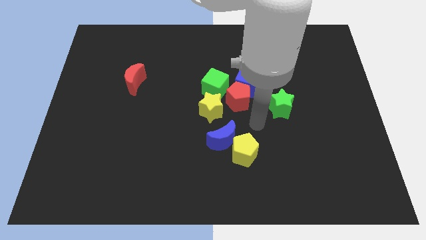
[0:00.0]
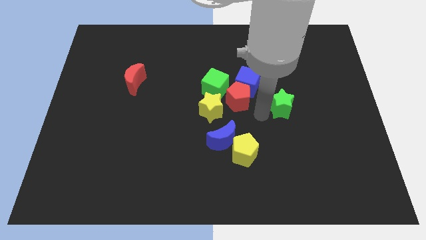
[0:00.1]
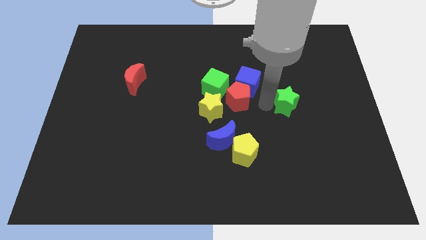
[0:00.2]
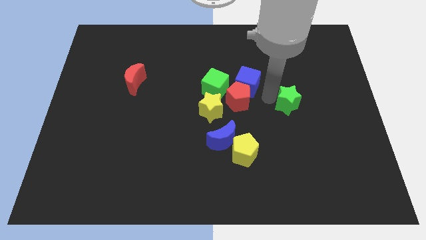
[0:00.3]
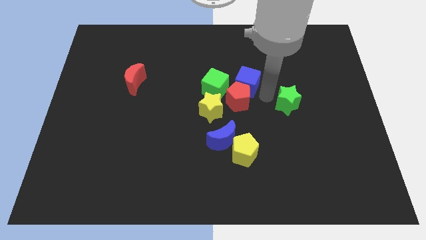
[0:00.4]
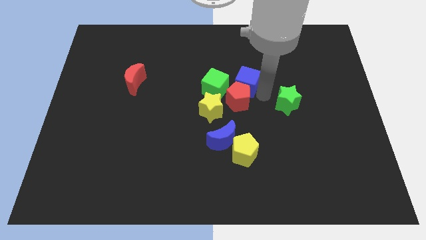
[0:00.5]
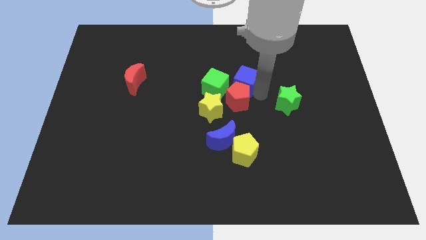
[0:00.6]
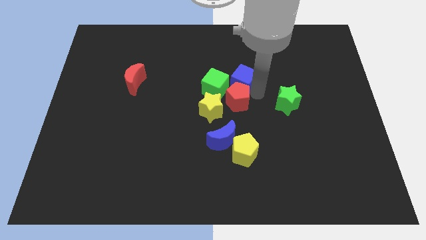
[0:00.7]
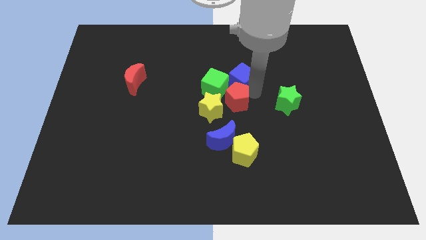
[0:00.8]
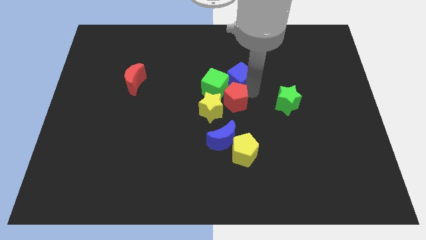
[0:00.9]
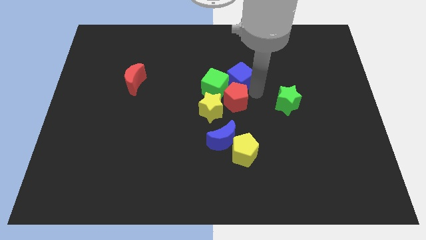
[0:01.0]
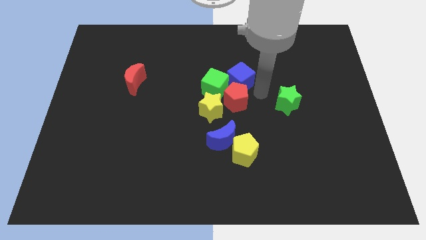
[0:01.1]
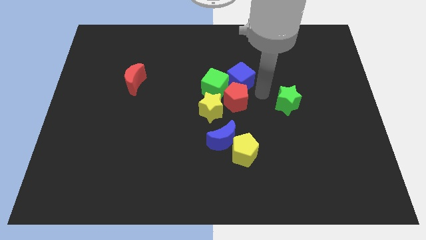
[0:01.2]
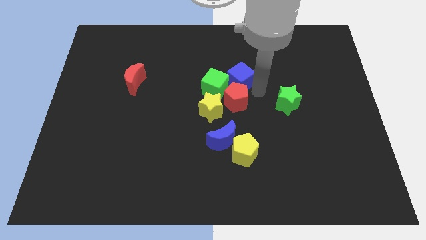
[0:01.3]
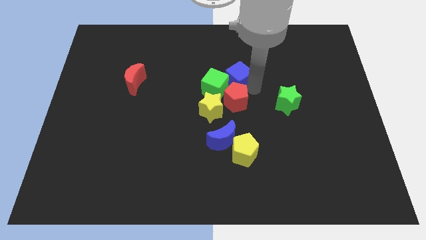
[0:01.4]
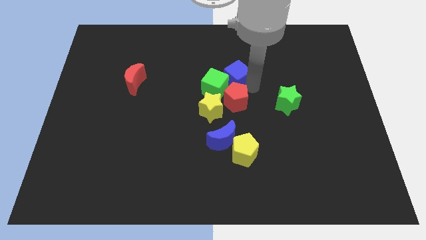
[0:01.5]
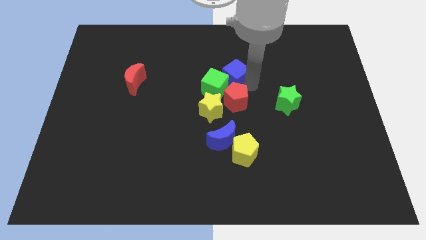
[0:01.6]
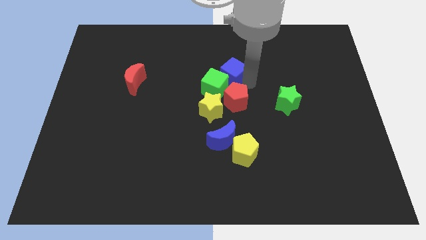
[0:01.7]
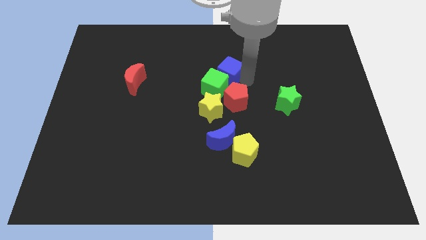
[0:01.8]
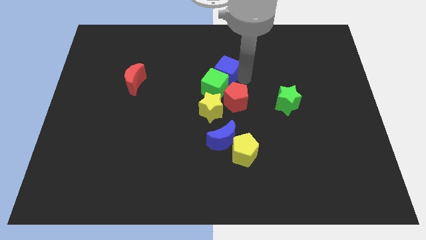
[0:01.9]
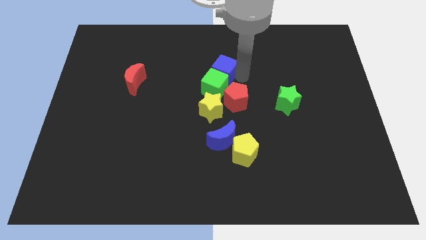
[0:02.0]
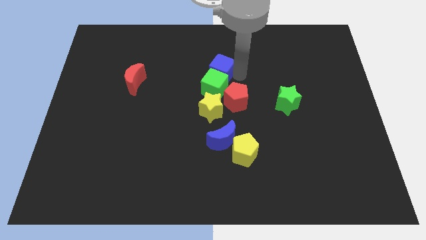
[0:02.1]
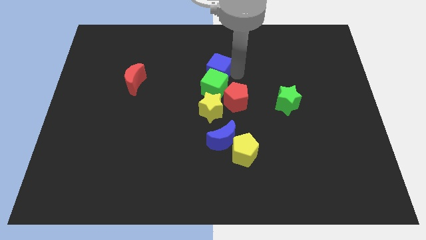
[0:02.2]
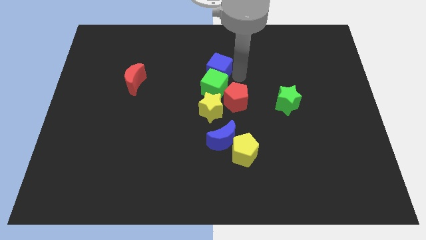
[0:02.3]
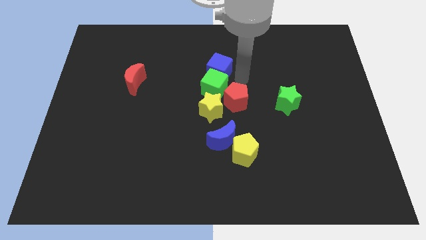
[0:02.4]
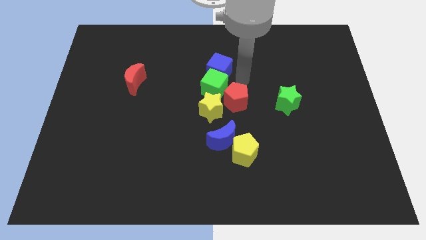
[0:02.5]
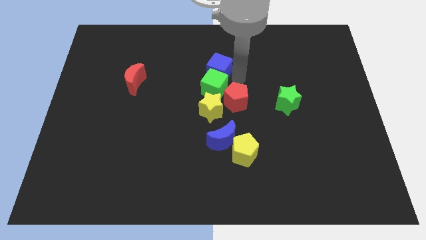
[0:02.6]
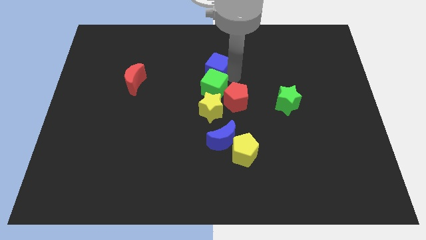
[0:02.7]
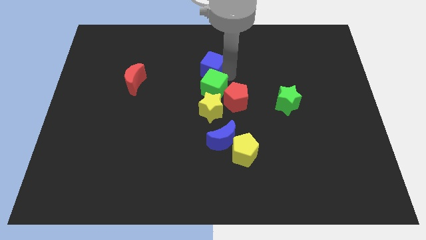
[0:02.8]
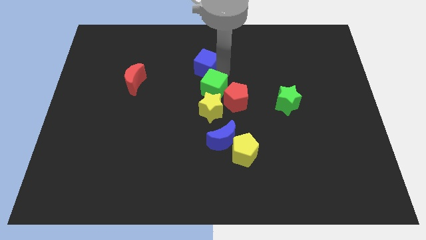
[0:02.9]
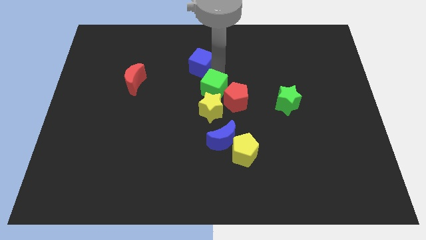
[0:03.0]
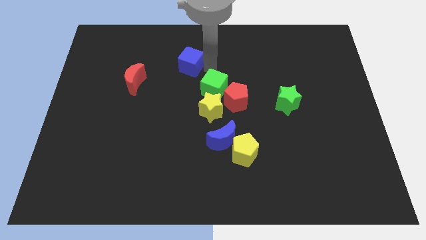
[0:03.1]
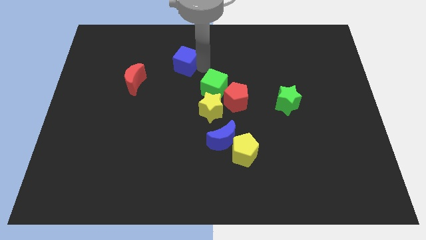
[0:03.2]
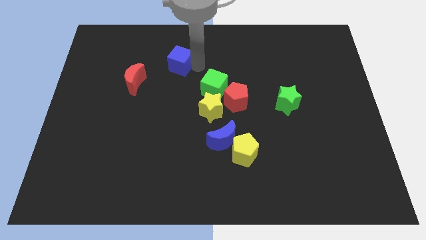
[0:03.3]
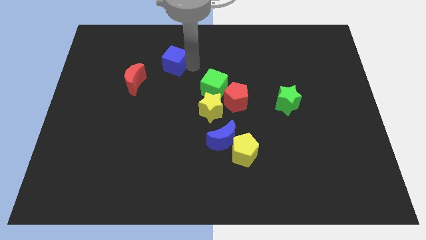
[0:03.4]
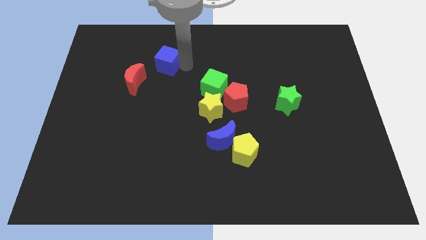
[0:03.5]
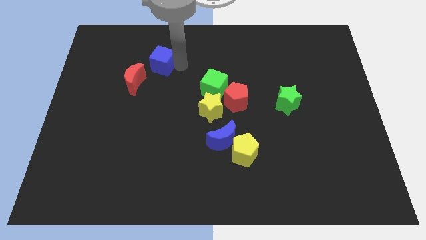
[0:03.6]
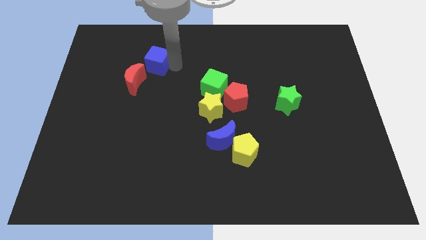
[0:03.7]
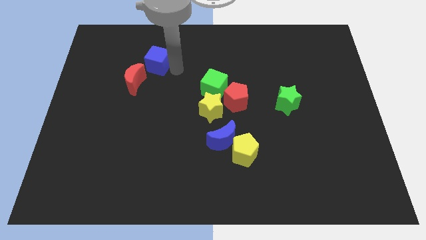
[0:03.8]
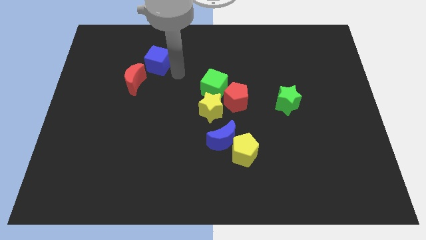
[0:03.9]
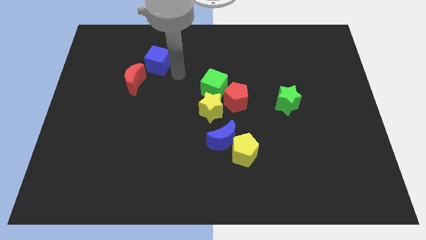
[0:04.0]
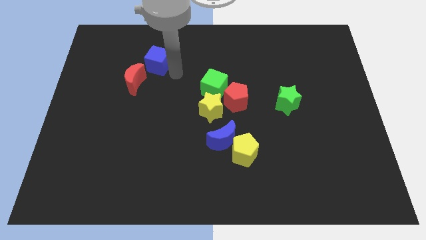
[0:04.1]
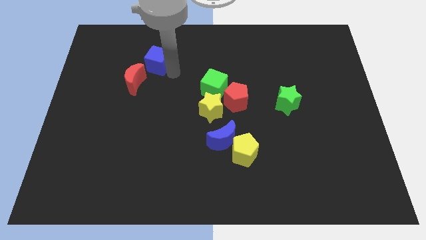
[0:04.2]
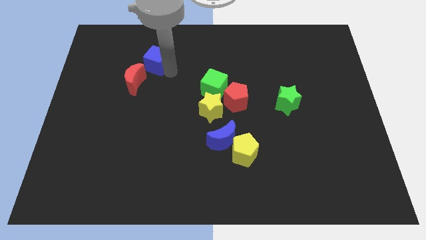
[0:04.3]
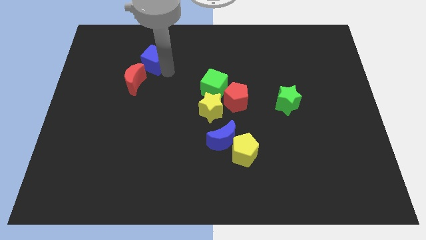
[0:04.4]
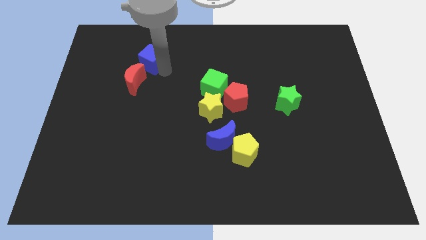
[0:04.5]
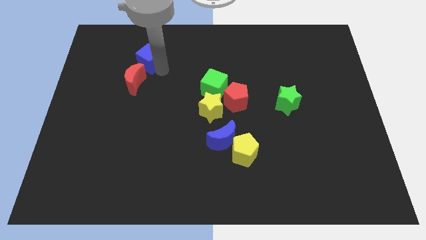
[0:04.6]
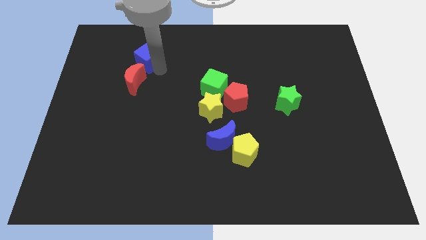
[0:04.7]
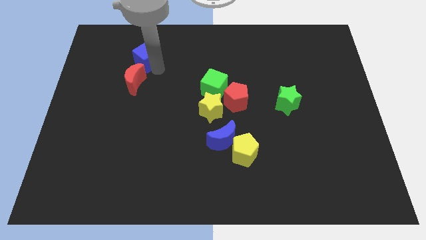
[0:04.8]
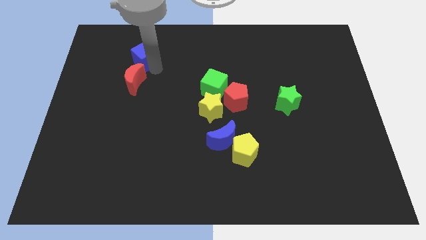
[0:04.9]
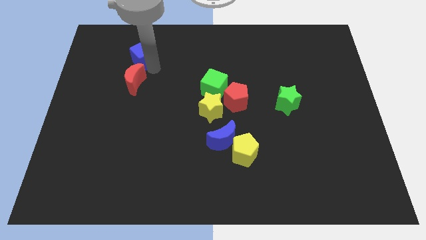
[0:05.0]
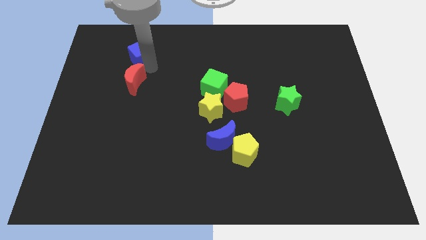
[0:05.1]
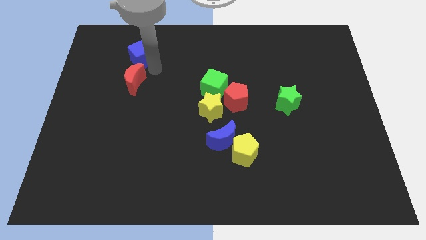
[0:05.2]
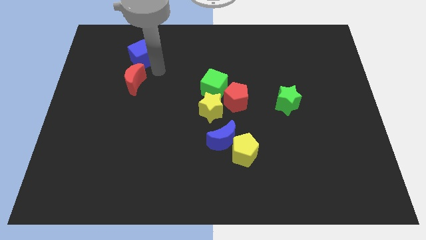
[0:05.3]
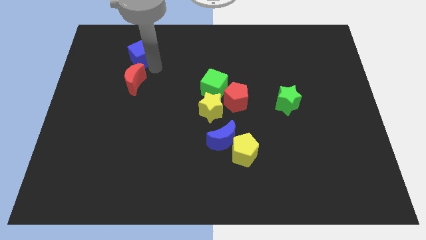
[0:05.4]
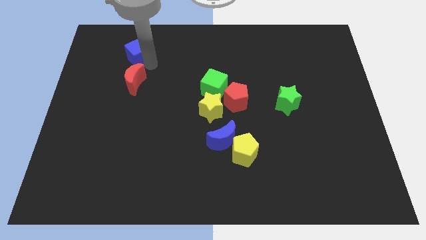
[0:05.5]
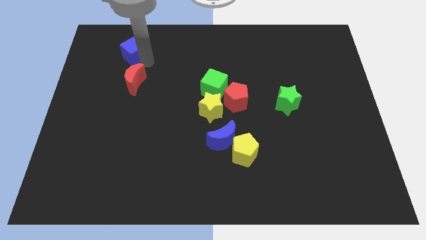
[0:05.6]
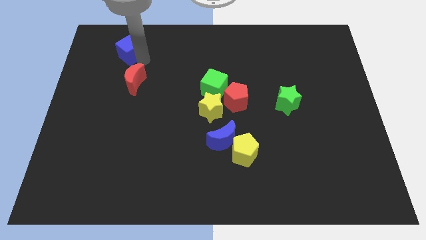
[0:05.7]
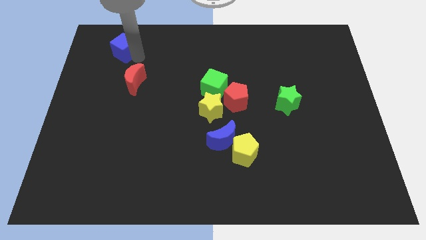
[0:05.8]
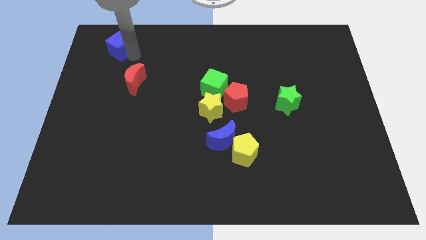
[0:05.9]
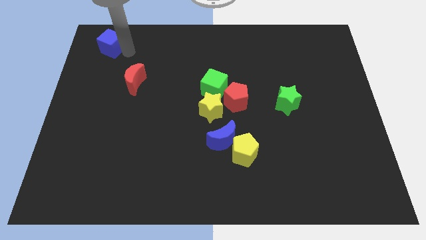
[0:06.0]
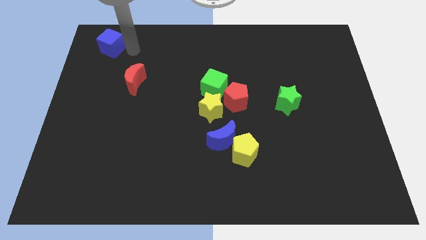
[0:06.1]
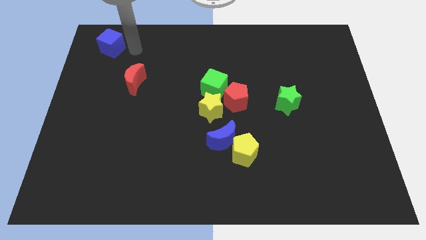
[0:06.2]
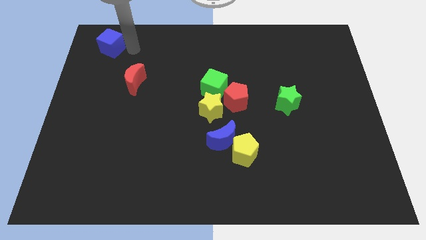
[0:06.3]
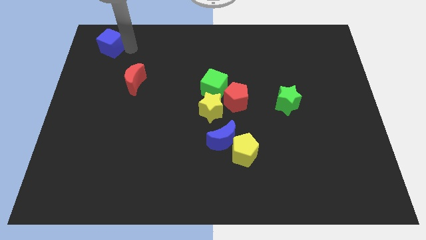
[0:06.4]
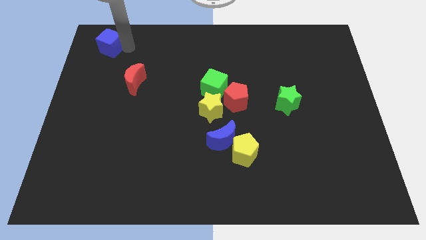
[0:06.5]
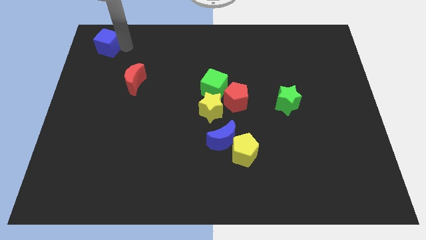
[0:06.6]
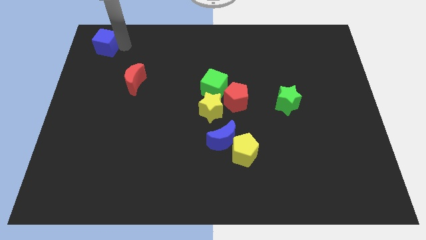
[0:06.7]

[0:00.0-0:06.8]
push the blue cube to the top left corner
